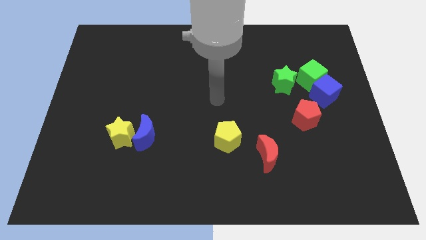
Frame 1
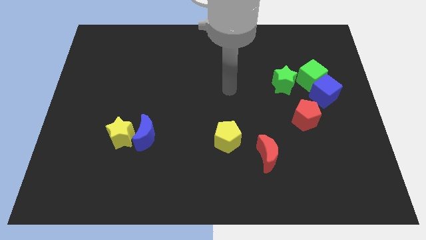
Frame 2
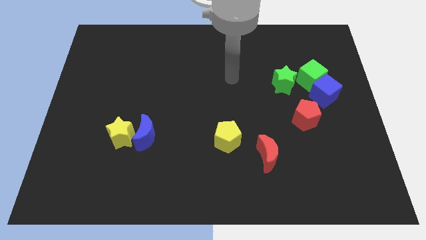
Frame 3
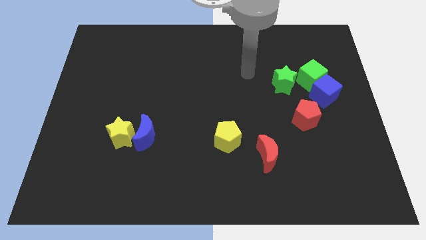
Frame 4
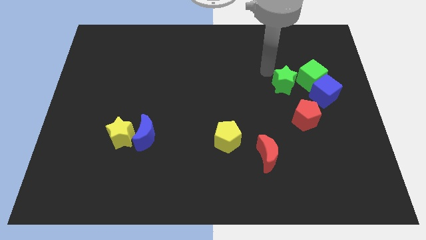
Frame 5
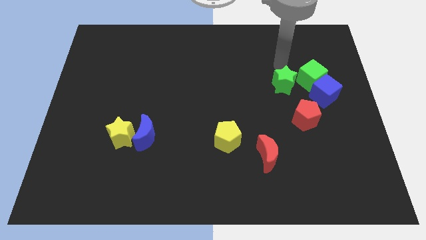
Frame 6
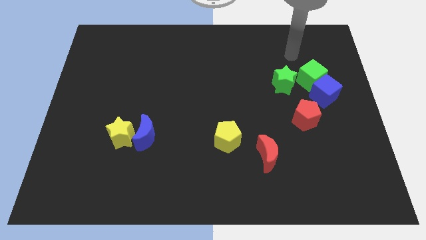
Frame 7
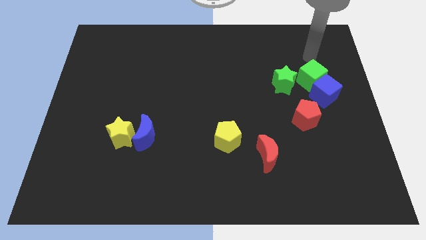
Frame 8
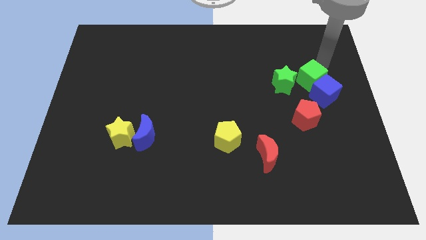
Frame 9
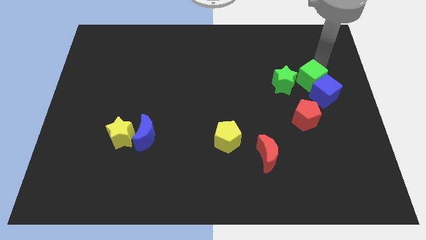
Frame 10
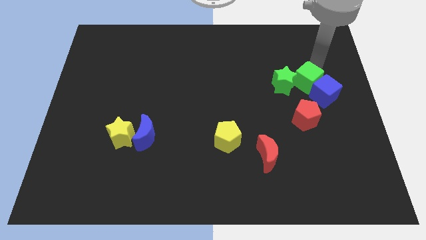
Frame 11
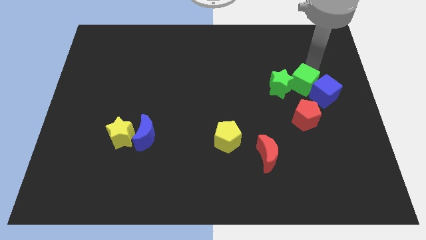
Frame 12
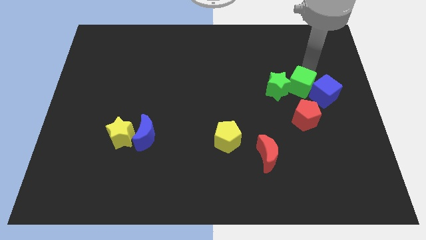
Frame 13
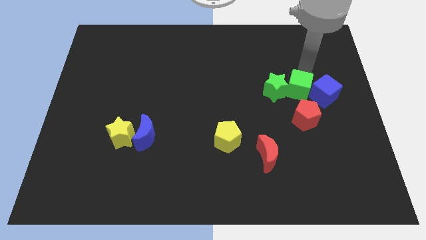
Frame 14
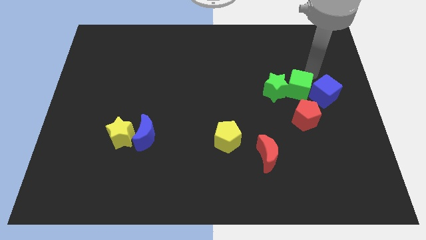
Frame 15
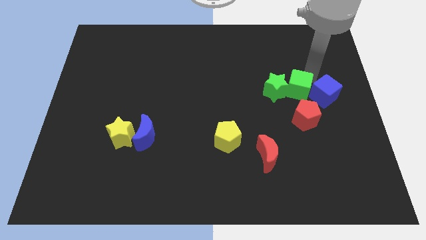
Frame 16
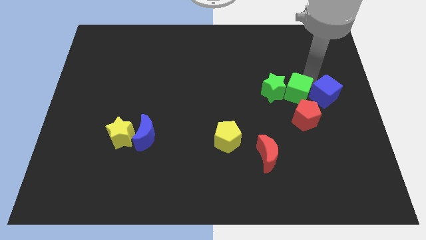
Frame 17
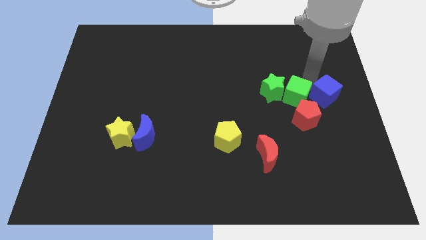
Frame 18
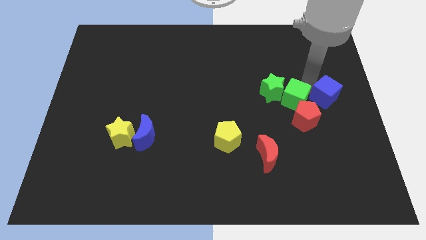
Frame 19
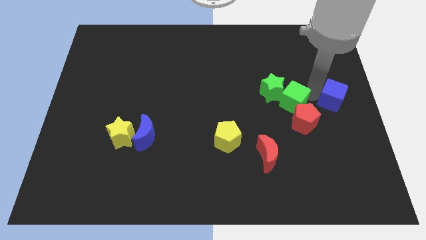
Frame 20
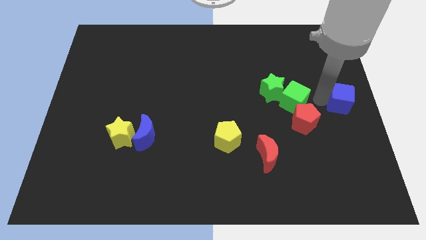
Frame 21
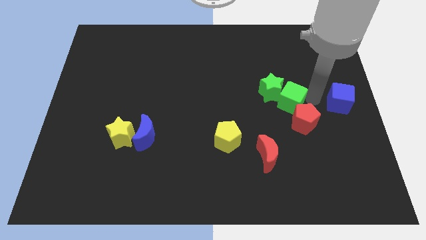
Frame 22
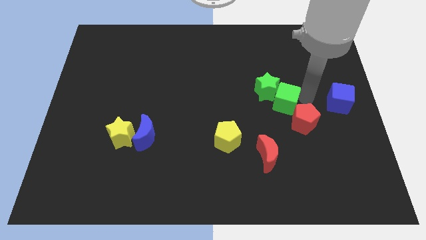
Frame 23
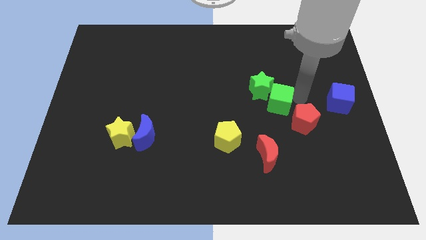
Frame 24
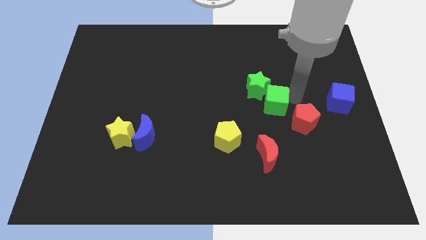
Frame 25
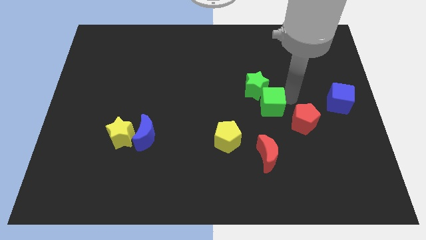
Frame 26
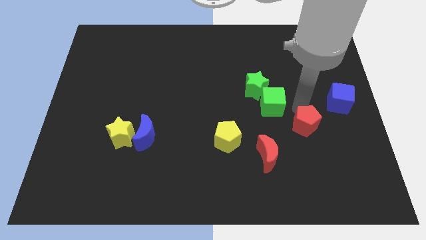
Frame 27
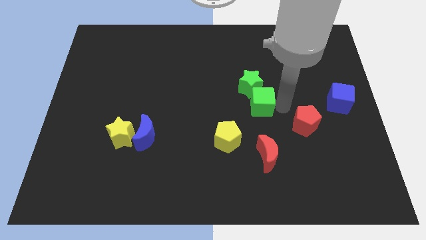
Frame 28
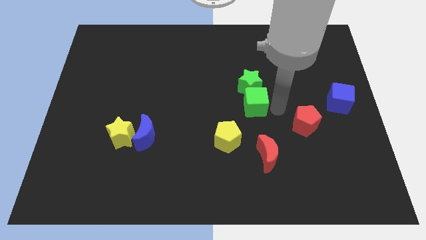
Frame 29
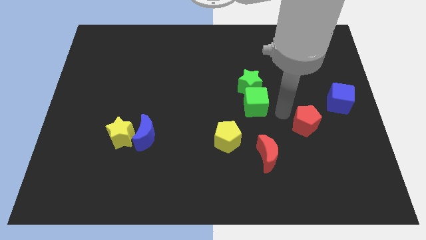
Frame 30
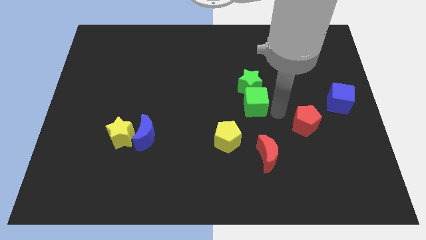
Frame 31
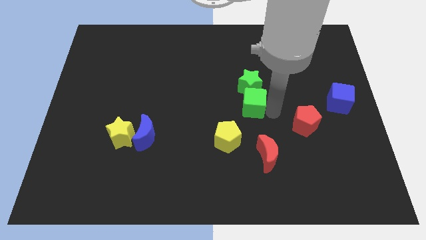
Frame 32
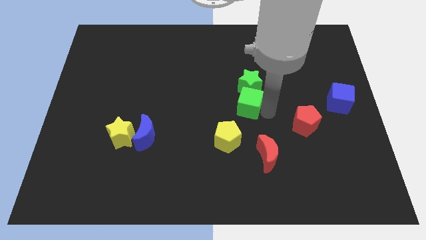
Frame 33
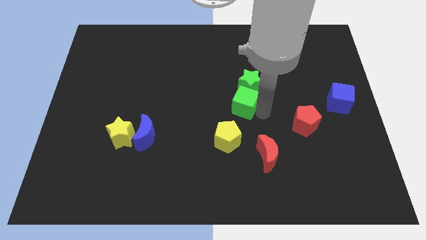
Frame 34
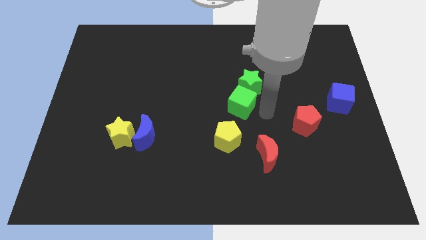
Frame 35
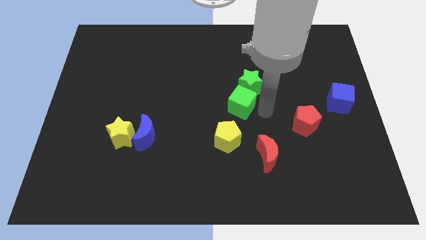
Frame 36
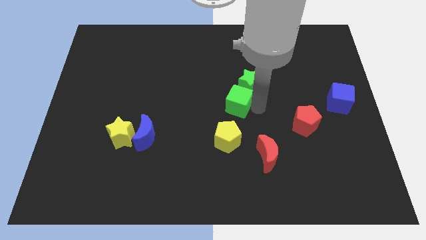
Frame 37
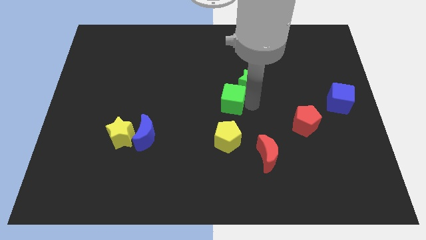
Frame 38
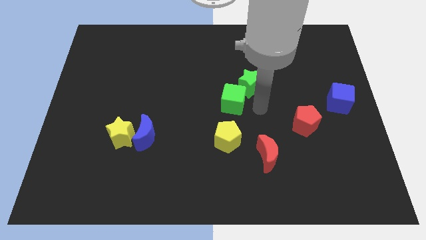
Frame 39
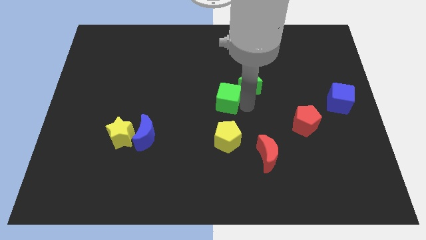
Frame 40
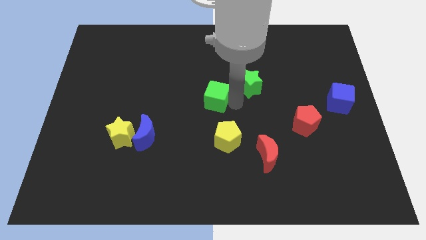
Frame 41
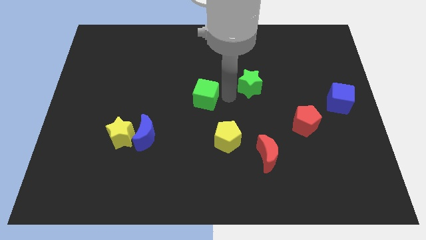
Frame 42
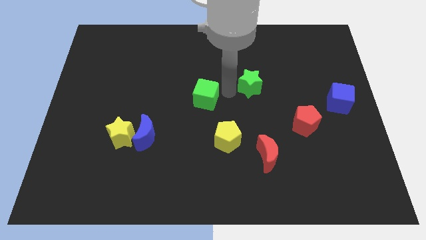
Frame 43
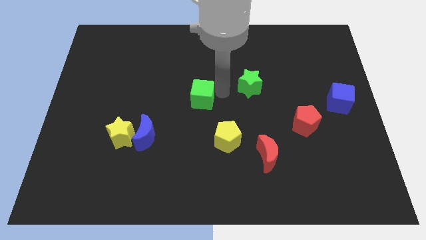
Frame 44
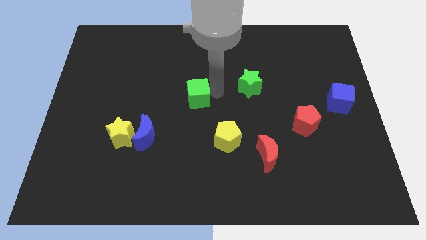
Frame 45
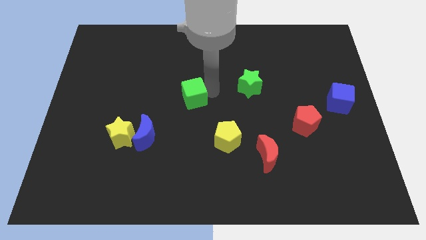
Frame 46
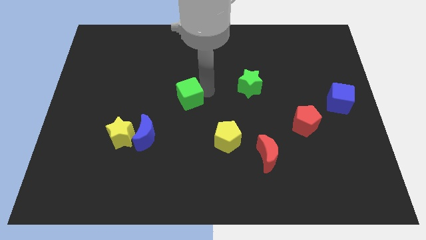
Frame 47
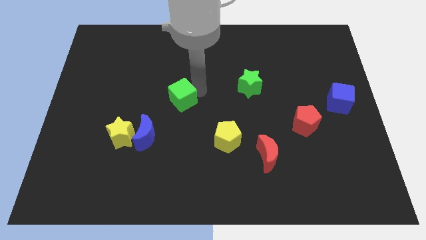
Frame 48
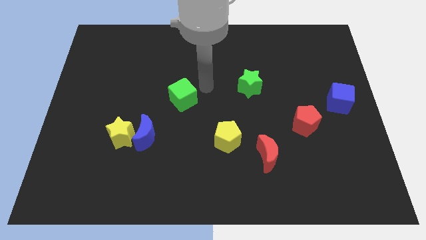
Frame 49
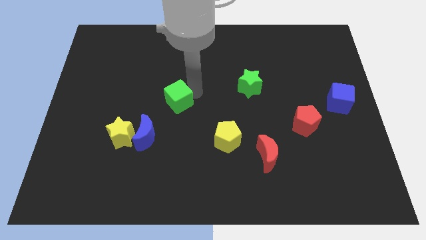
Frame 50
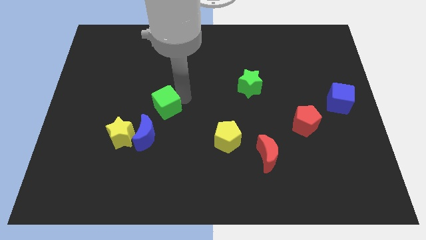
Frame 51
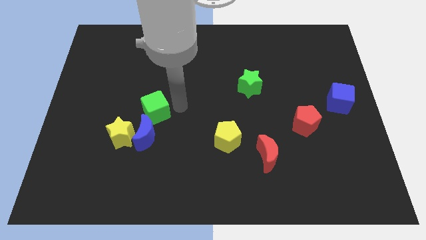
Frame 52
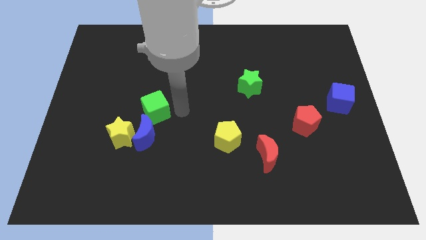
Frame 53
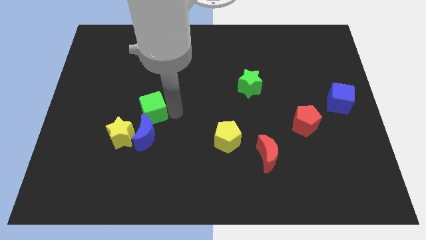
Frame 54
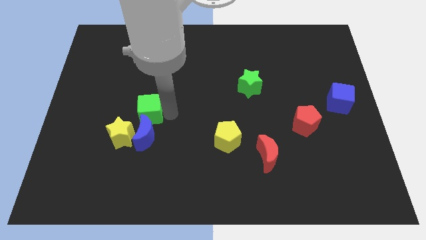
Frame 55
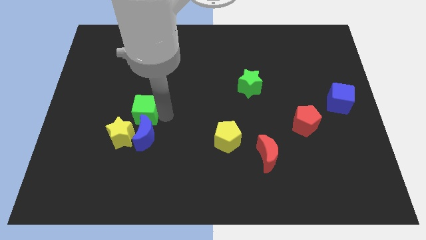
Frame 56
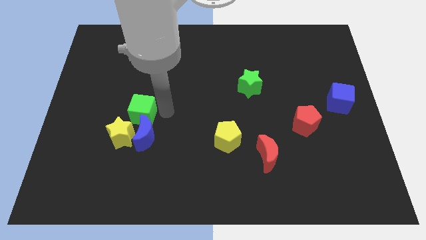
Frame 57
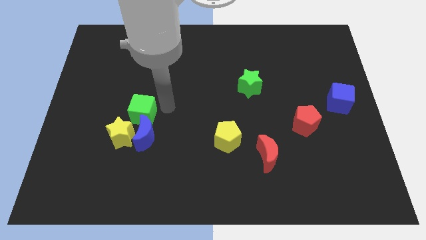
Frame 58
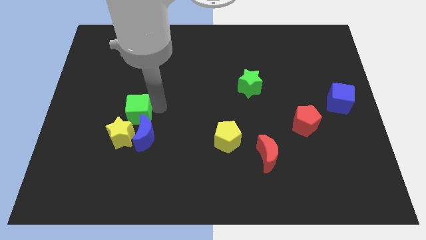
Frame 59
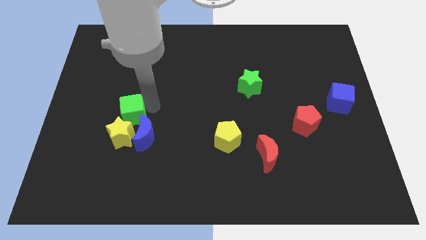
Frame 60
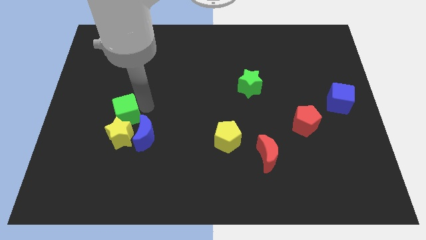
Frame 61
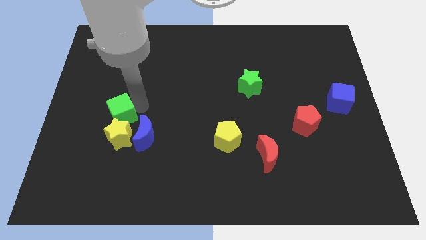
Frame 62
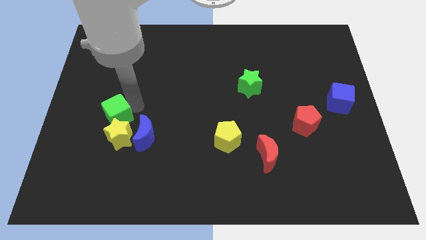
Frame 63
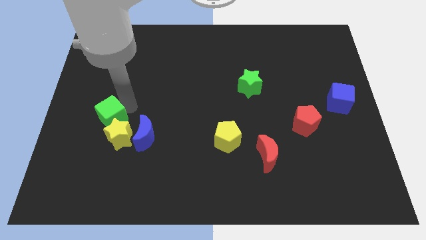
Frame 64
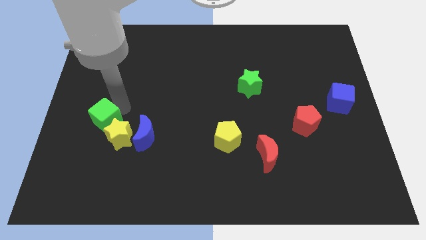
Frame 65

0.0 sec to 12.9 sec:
move the green cube to the left side of the blue moon

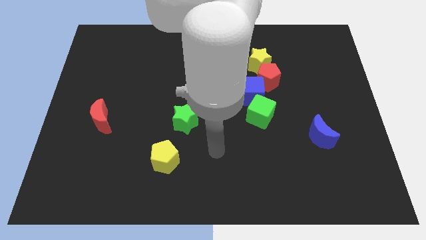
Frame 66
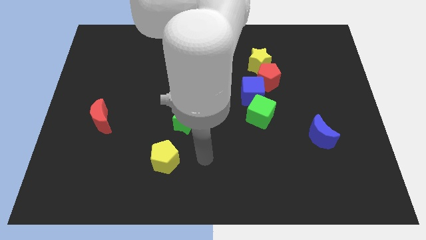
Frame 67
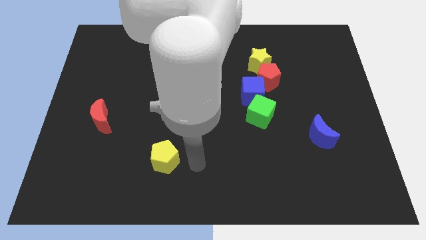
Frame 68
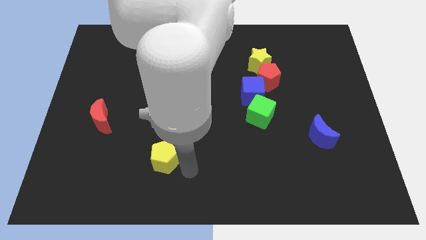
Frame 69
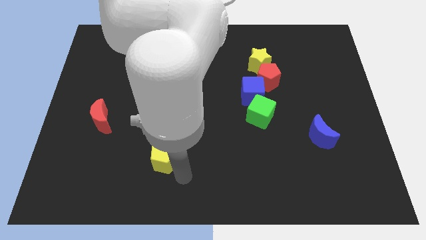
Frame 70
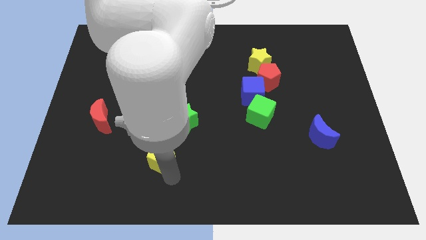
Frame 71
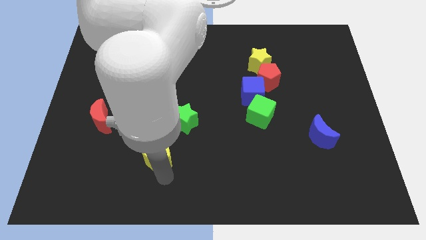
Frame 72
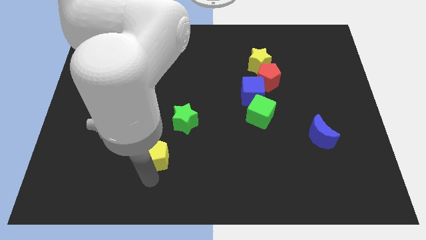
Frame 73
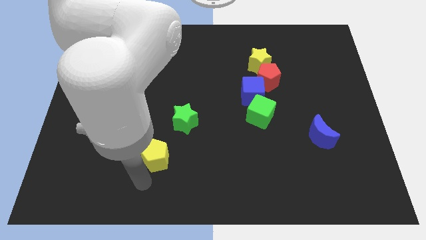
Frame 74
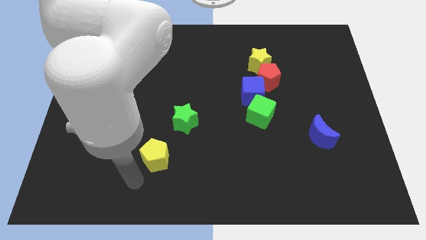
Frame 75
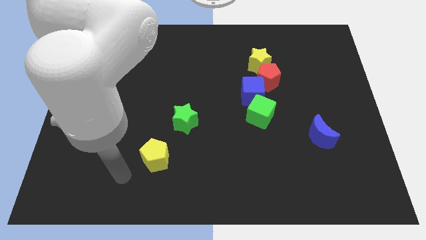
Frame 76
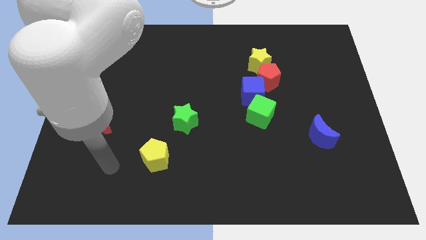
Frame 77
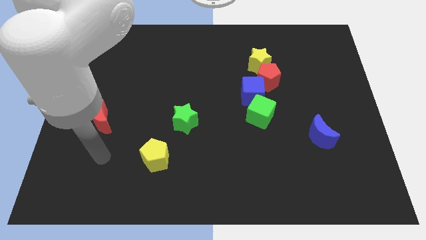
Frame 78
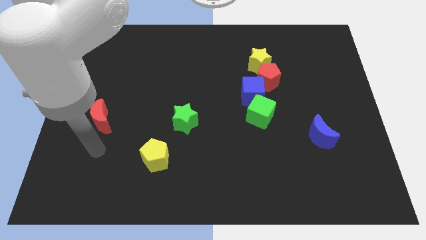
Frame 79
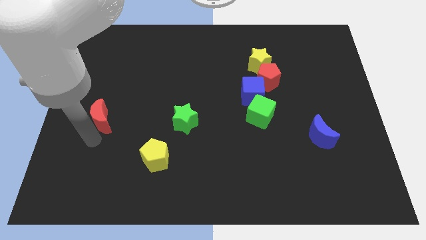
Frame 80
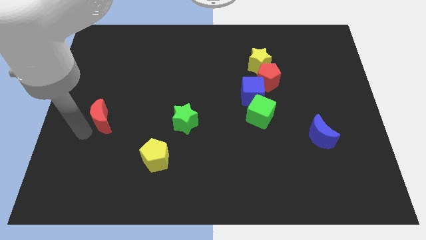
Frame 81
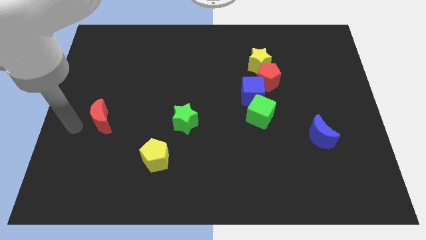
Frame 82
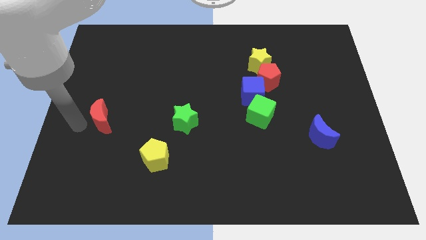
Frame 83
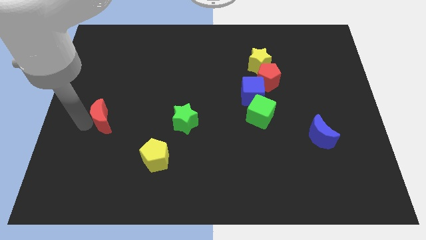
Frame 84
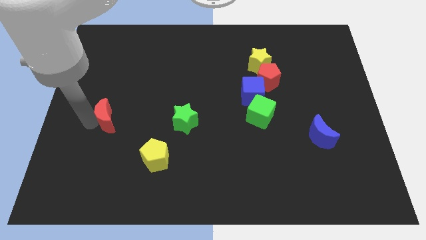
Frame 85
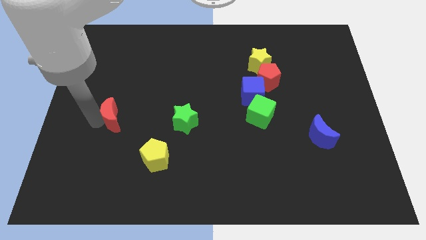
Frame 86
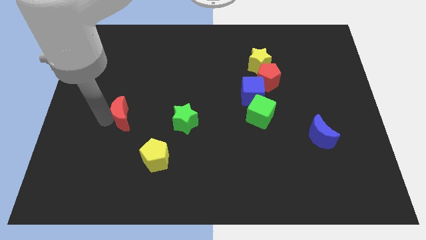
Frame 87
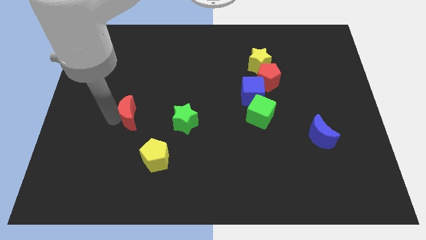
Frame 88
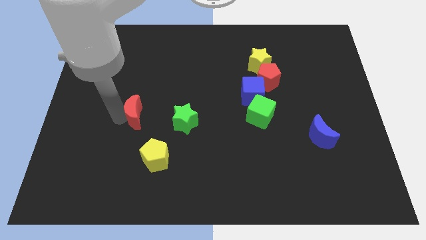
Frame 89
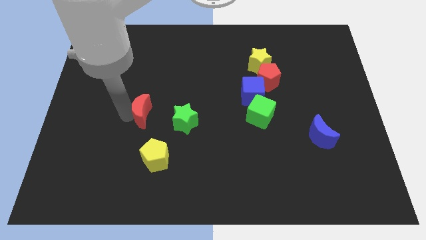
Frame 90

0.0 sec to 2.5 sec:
slide the red moon to the top side of the yellow pentagon
